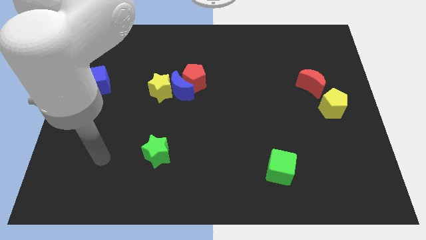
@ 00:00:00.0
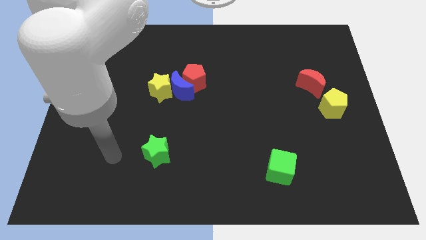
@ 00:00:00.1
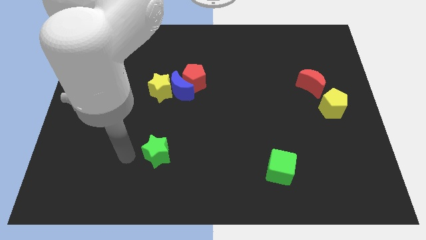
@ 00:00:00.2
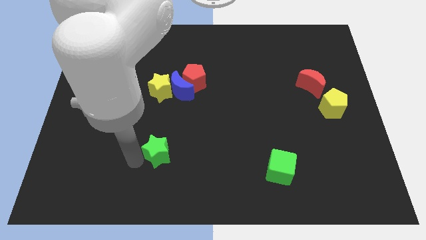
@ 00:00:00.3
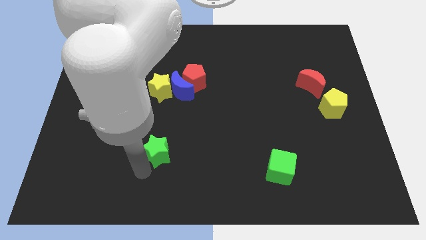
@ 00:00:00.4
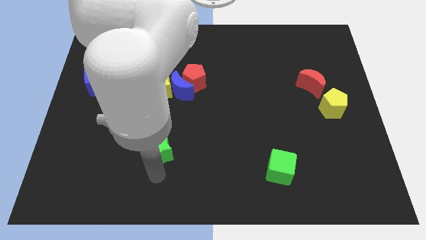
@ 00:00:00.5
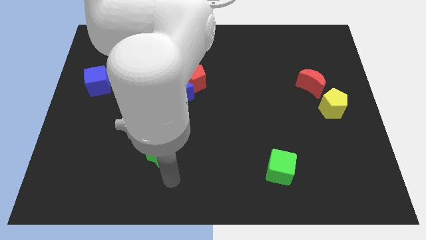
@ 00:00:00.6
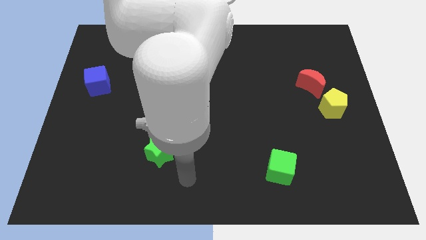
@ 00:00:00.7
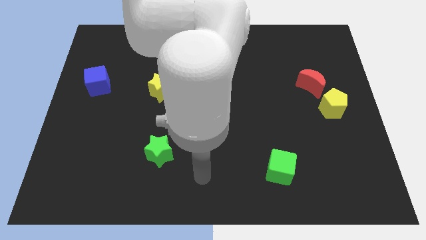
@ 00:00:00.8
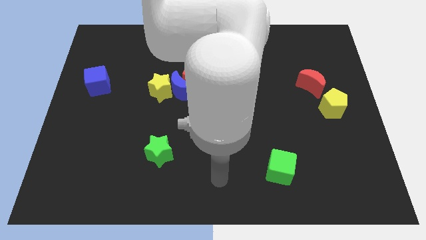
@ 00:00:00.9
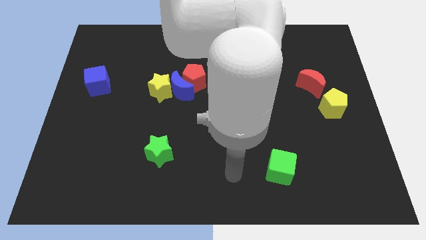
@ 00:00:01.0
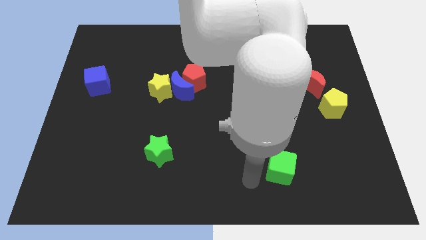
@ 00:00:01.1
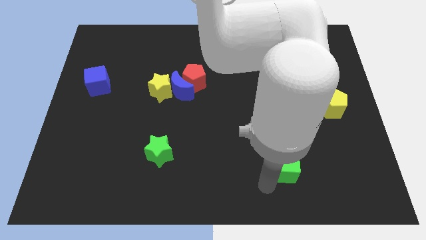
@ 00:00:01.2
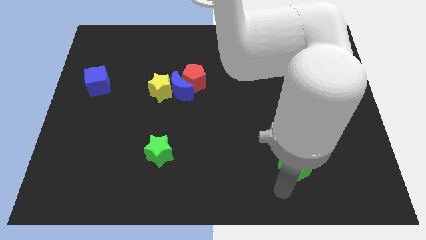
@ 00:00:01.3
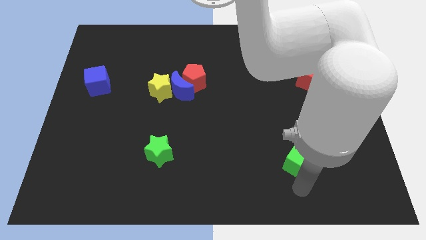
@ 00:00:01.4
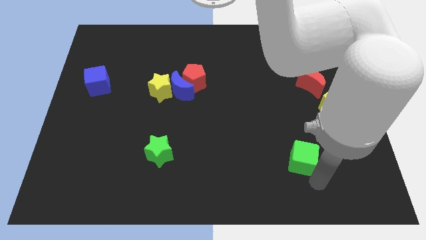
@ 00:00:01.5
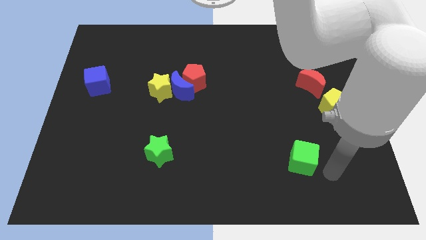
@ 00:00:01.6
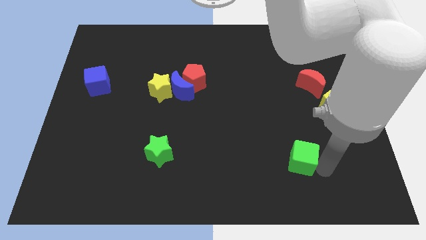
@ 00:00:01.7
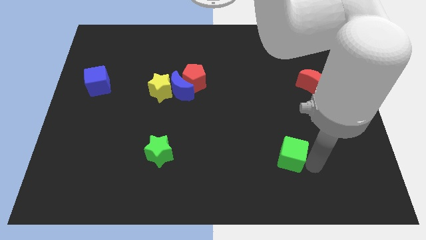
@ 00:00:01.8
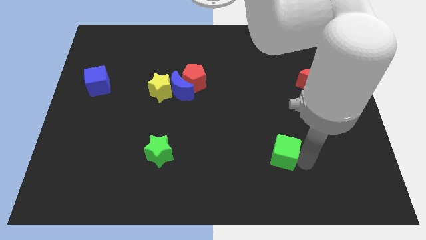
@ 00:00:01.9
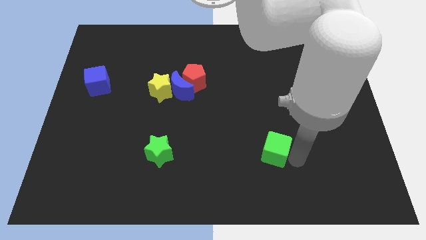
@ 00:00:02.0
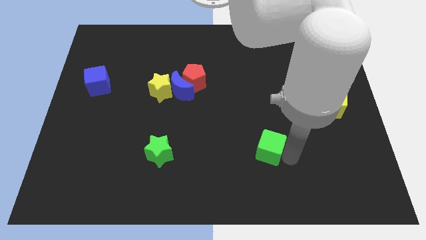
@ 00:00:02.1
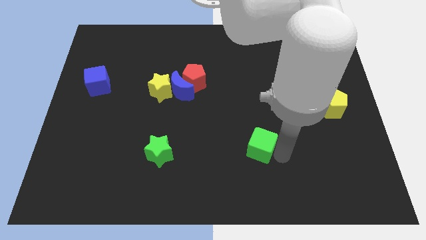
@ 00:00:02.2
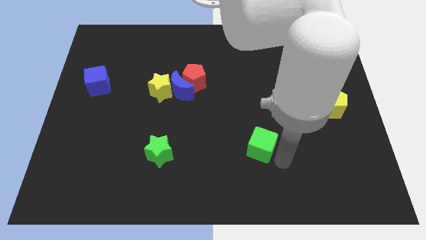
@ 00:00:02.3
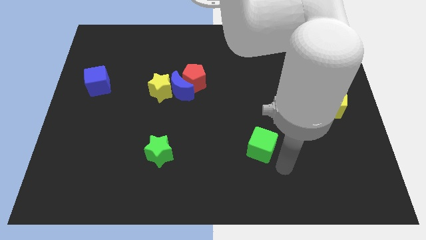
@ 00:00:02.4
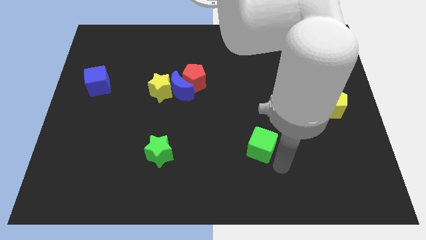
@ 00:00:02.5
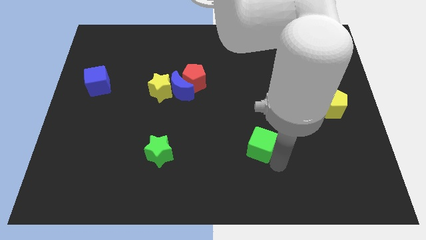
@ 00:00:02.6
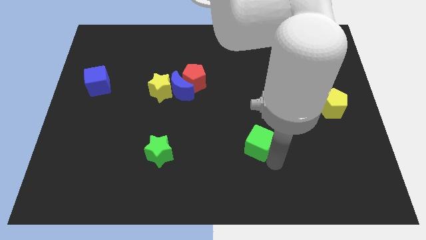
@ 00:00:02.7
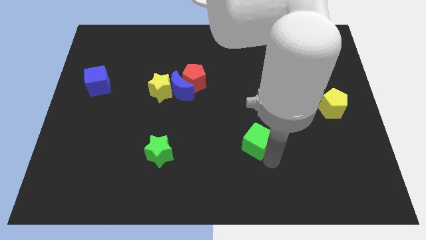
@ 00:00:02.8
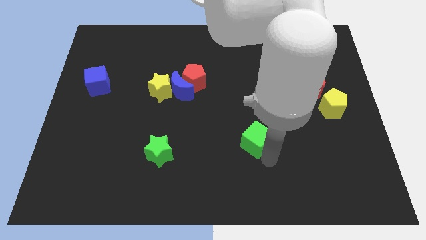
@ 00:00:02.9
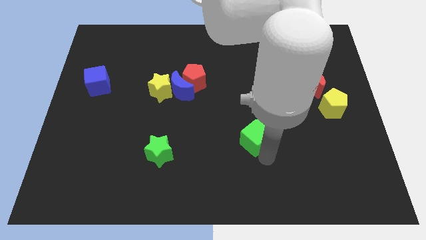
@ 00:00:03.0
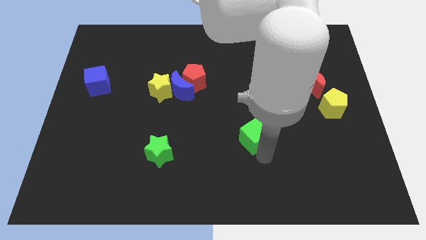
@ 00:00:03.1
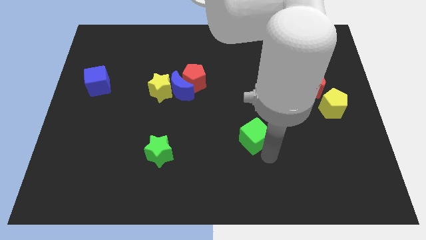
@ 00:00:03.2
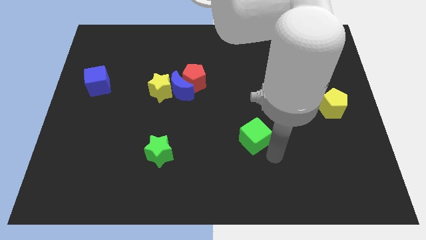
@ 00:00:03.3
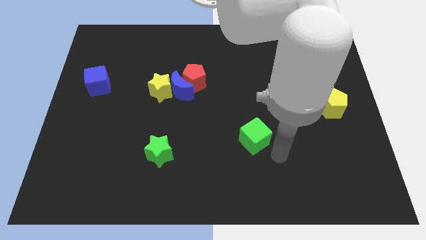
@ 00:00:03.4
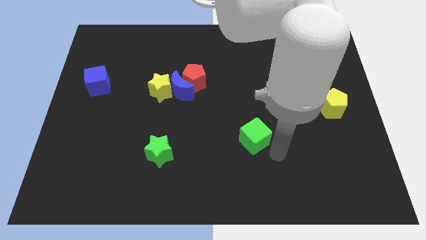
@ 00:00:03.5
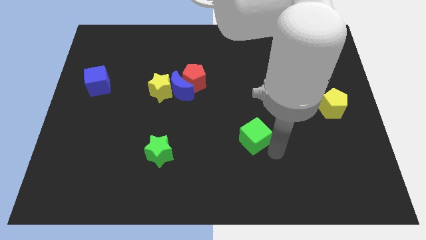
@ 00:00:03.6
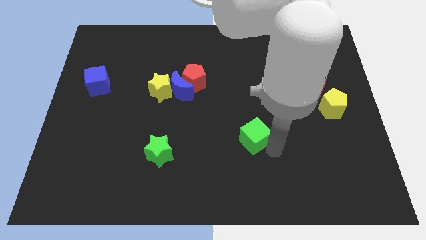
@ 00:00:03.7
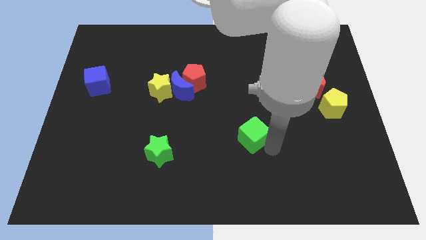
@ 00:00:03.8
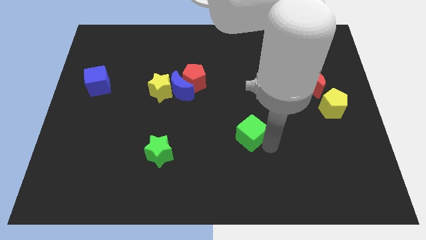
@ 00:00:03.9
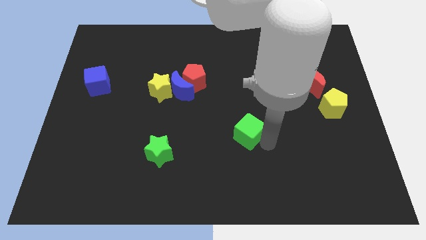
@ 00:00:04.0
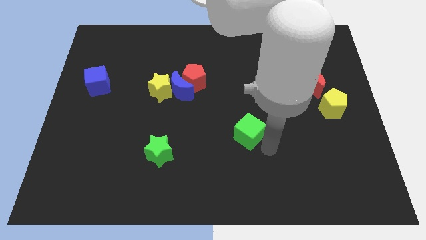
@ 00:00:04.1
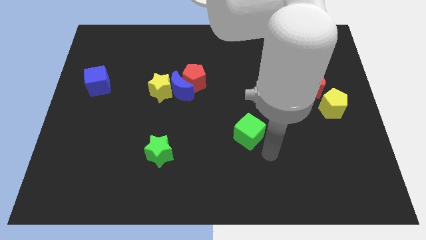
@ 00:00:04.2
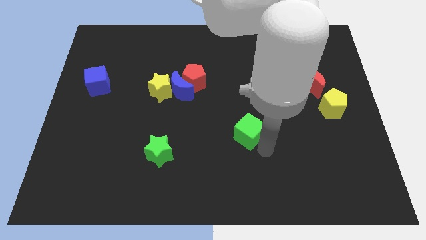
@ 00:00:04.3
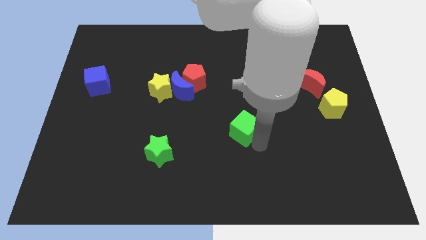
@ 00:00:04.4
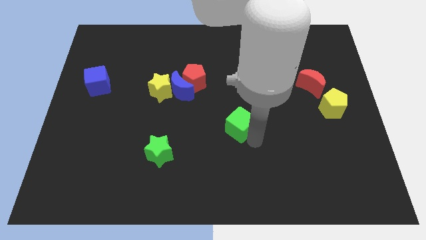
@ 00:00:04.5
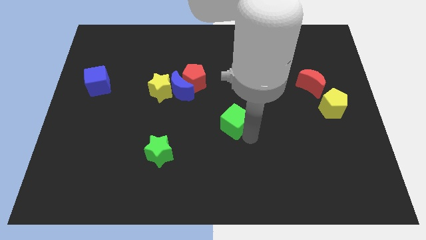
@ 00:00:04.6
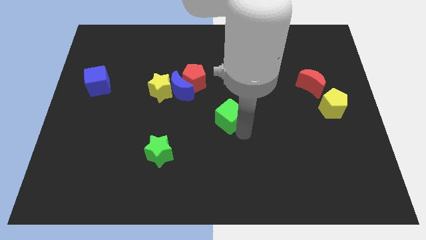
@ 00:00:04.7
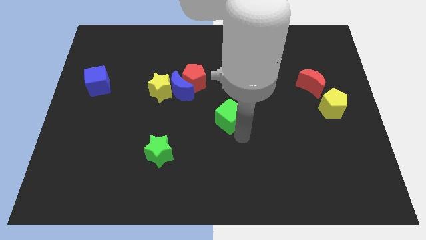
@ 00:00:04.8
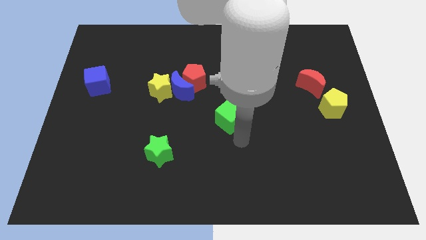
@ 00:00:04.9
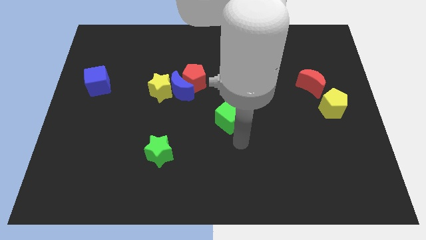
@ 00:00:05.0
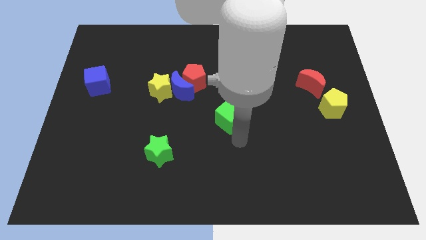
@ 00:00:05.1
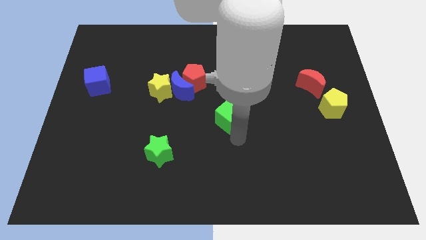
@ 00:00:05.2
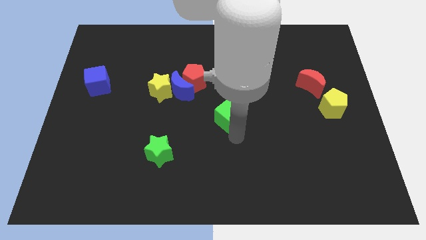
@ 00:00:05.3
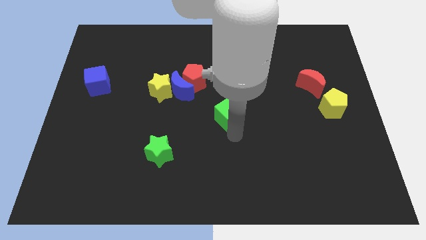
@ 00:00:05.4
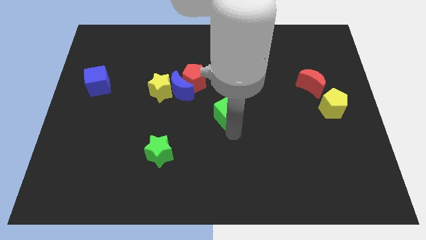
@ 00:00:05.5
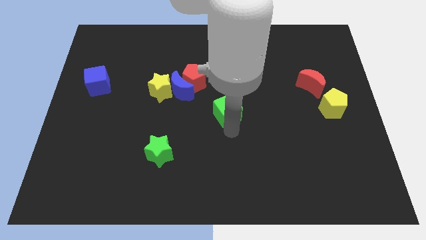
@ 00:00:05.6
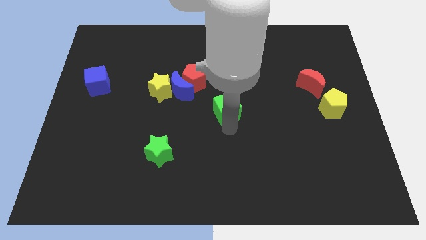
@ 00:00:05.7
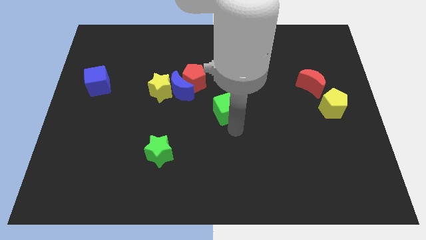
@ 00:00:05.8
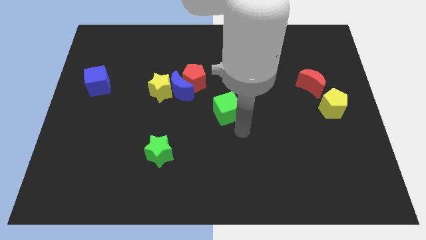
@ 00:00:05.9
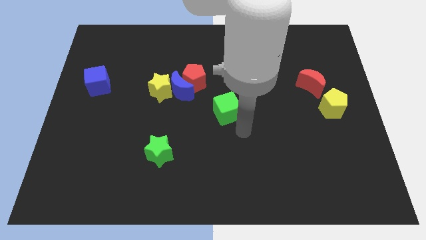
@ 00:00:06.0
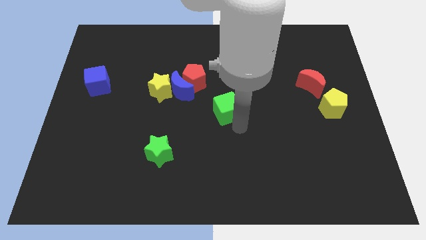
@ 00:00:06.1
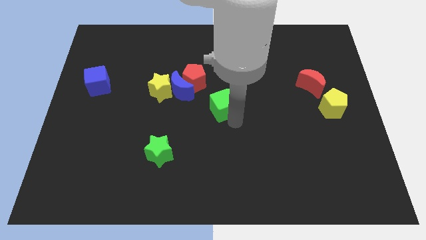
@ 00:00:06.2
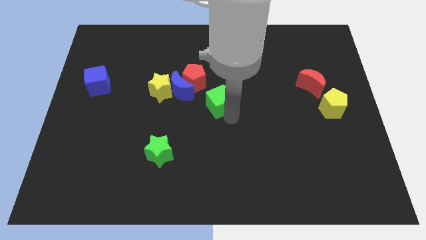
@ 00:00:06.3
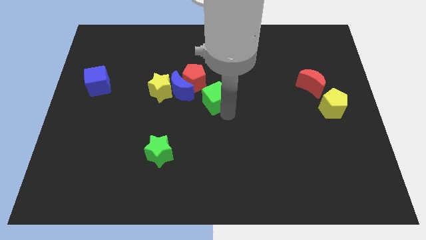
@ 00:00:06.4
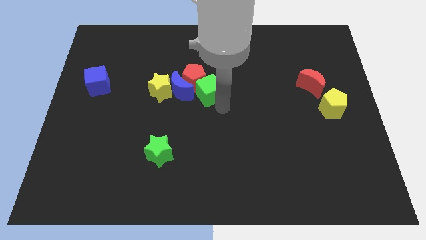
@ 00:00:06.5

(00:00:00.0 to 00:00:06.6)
slide the green cube next to the red pentagon
